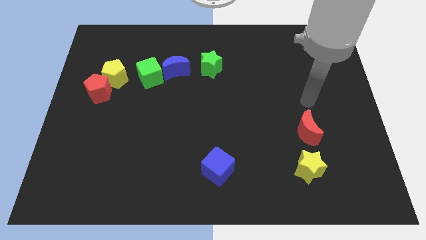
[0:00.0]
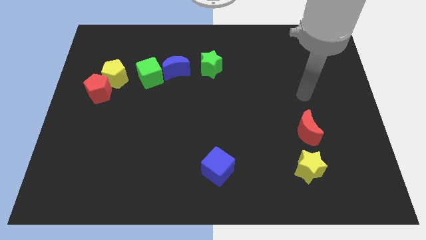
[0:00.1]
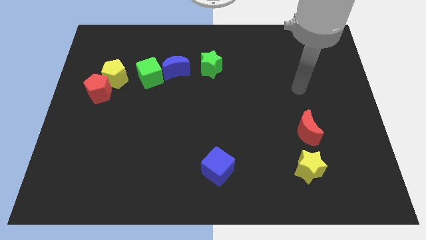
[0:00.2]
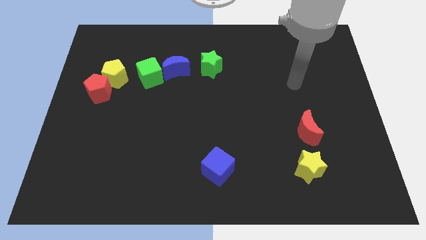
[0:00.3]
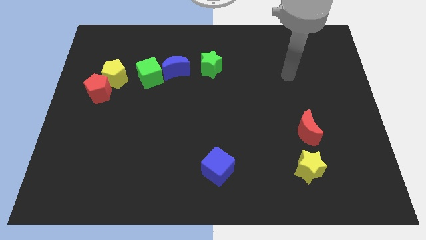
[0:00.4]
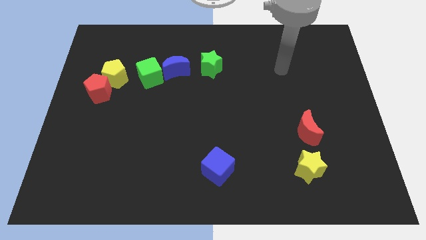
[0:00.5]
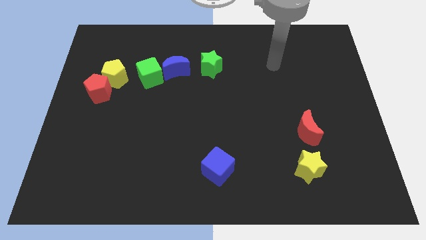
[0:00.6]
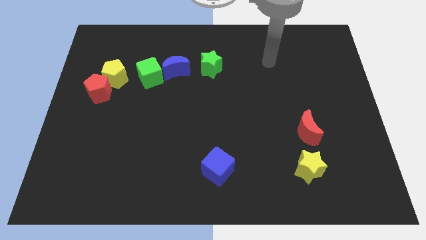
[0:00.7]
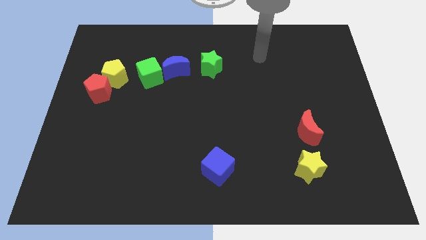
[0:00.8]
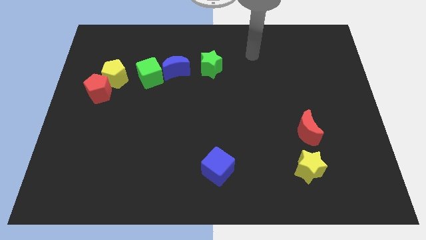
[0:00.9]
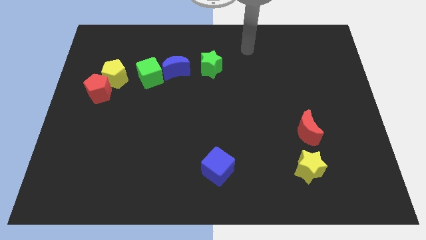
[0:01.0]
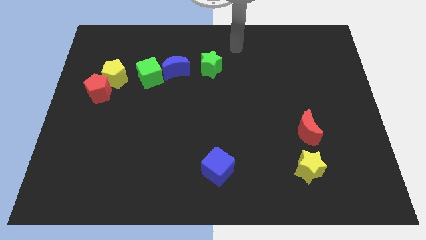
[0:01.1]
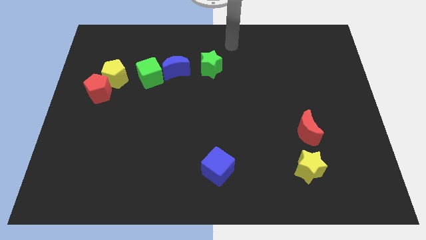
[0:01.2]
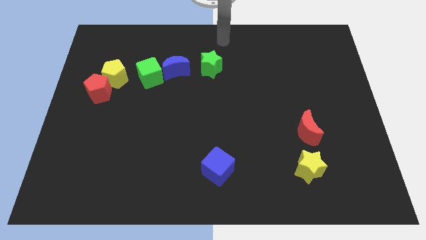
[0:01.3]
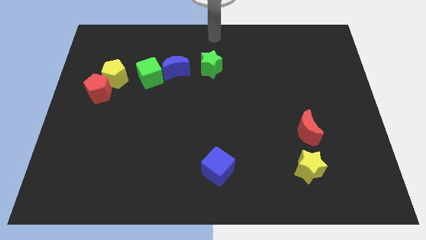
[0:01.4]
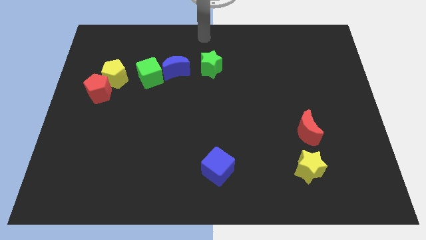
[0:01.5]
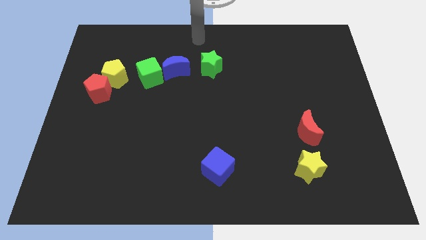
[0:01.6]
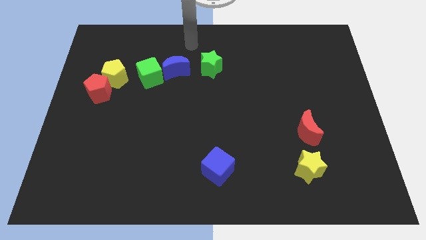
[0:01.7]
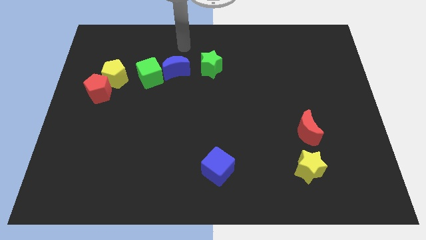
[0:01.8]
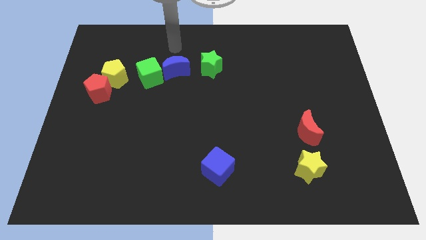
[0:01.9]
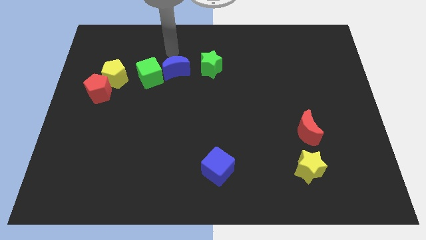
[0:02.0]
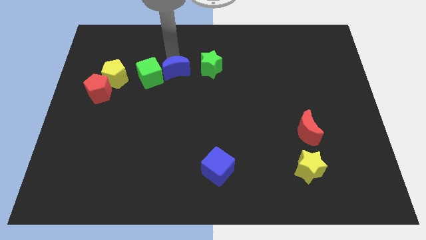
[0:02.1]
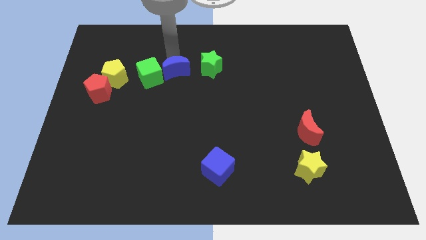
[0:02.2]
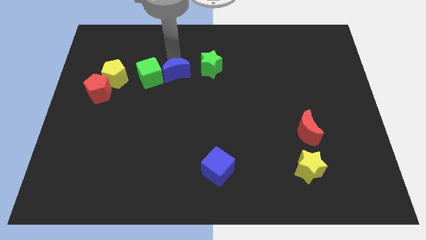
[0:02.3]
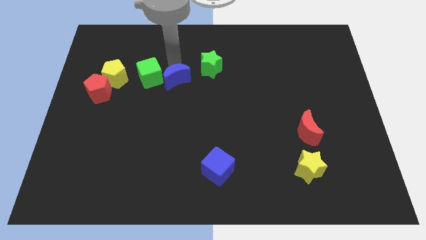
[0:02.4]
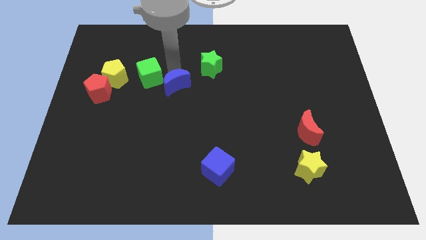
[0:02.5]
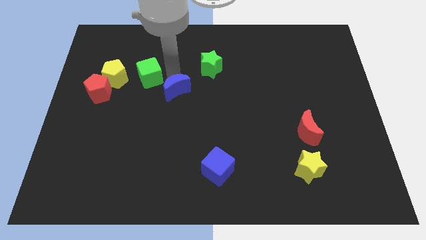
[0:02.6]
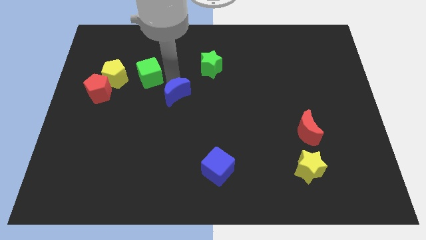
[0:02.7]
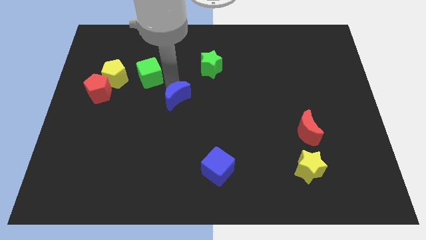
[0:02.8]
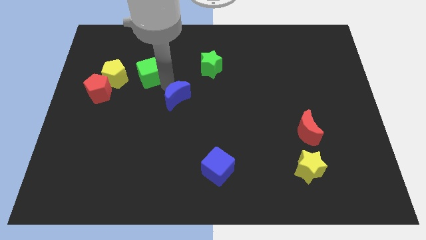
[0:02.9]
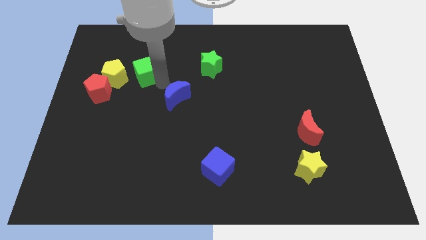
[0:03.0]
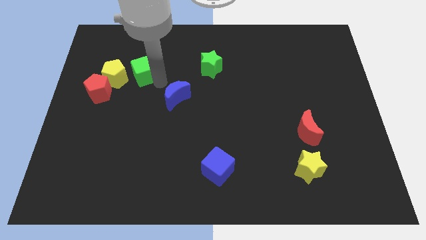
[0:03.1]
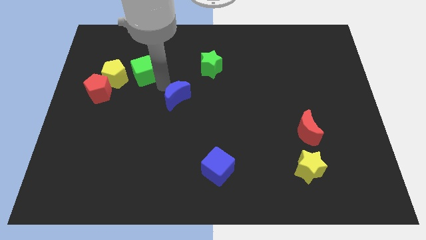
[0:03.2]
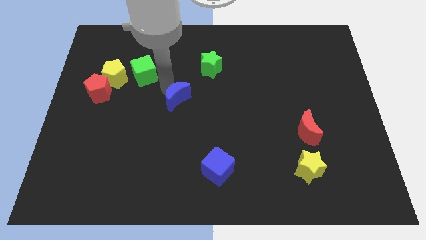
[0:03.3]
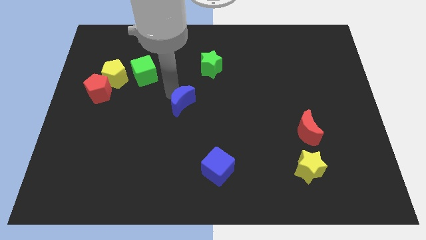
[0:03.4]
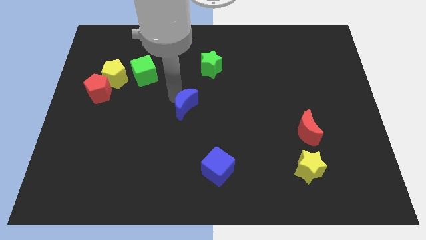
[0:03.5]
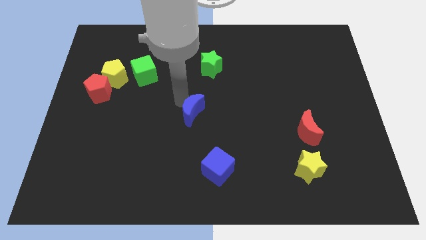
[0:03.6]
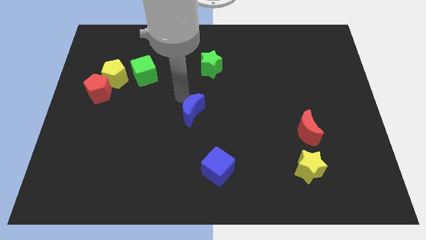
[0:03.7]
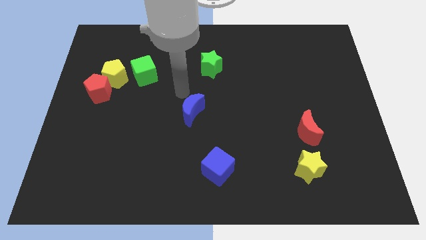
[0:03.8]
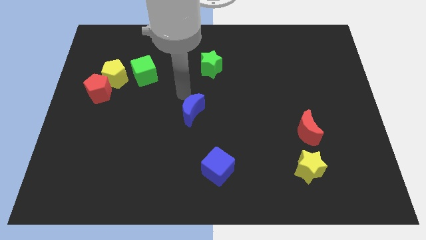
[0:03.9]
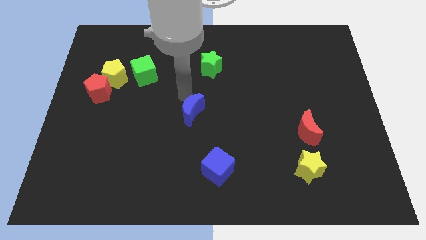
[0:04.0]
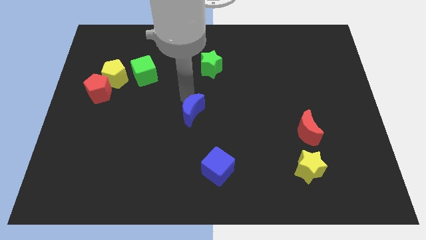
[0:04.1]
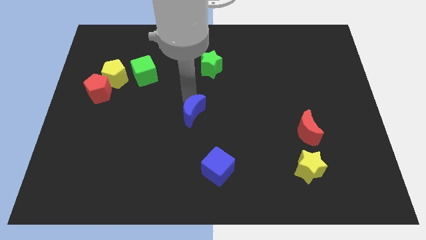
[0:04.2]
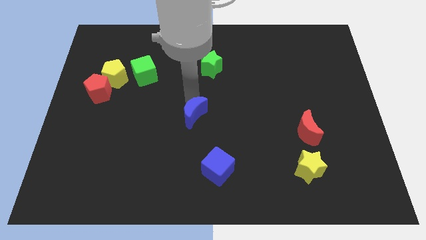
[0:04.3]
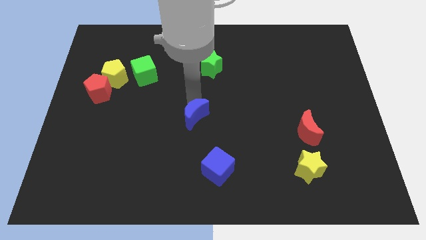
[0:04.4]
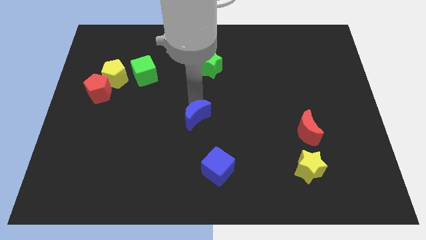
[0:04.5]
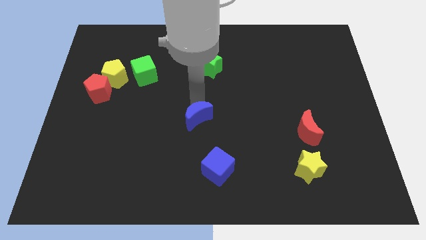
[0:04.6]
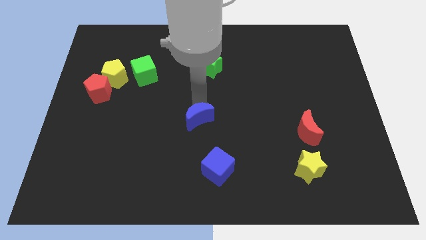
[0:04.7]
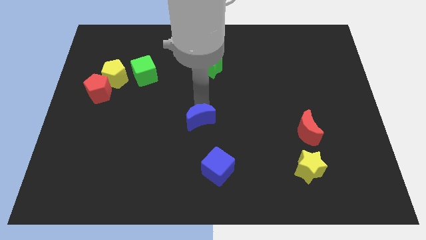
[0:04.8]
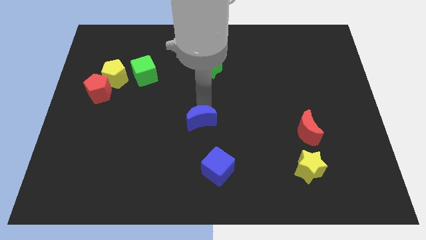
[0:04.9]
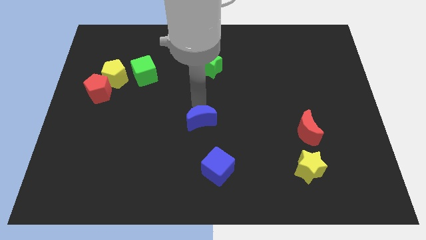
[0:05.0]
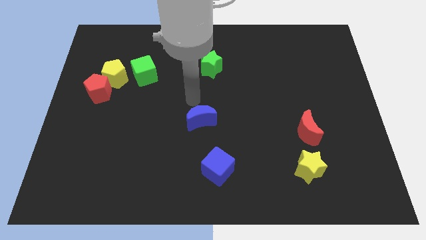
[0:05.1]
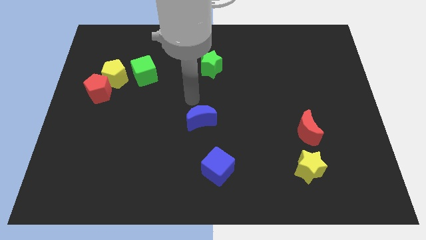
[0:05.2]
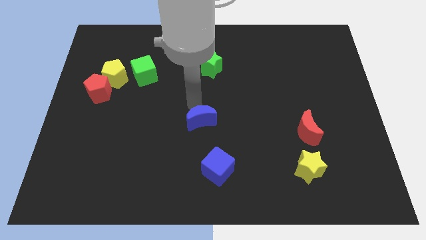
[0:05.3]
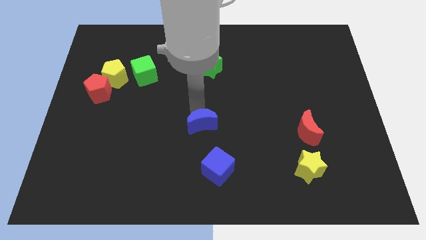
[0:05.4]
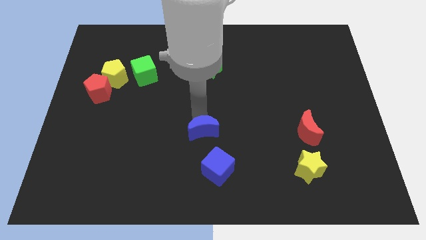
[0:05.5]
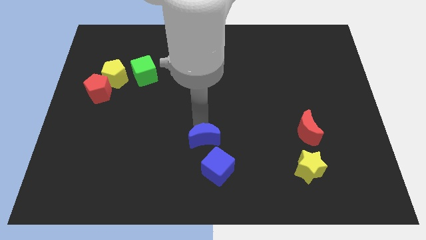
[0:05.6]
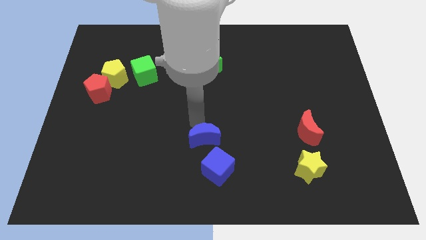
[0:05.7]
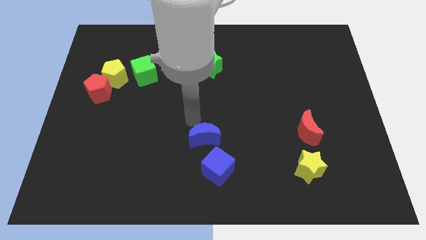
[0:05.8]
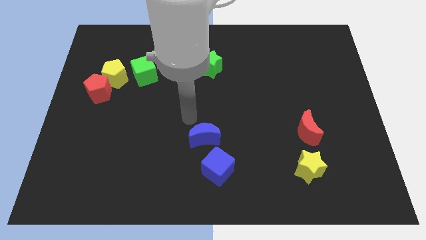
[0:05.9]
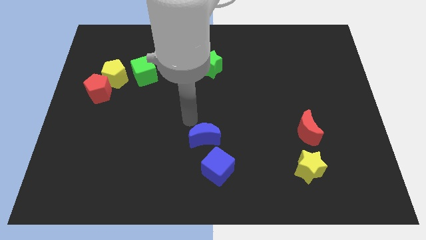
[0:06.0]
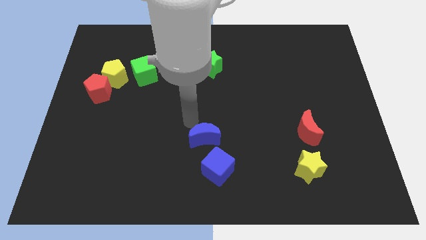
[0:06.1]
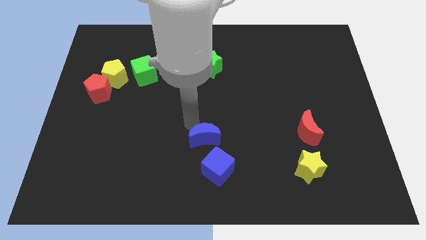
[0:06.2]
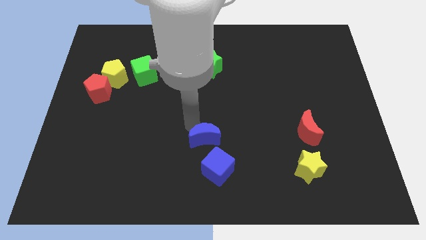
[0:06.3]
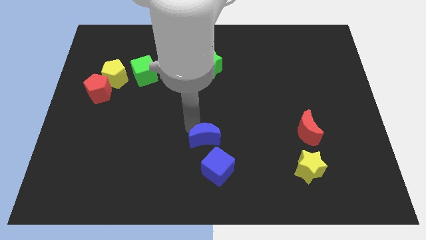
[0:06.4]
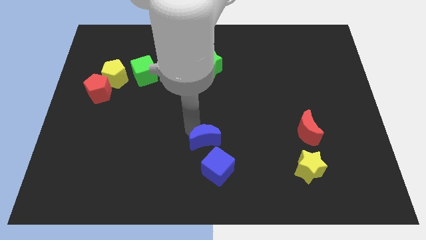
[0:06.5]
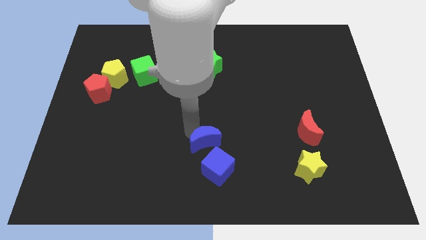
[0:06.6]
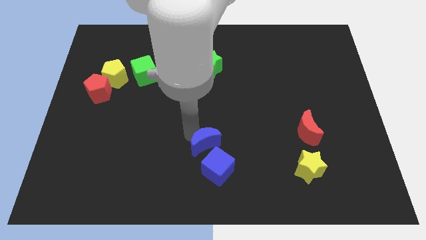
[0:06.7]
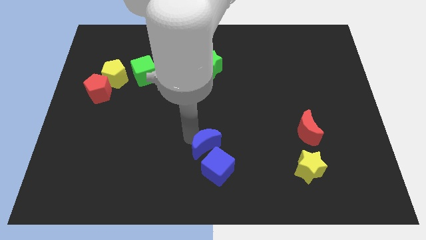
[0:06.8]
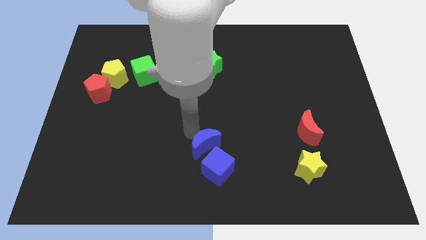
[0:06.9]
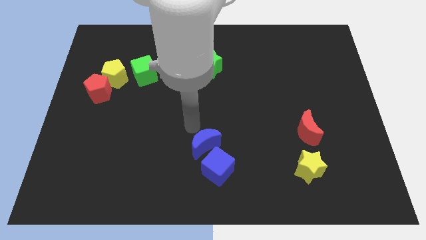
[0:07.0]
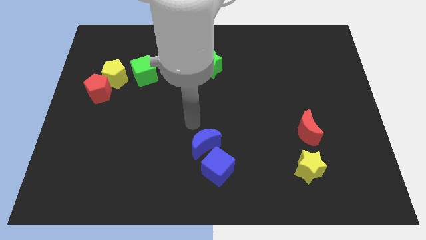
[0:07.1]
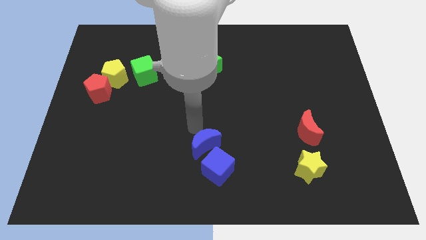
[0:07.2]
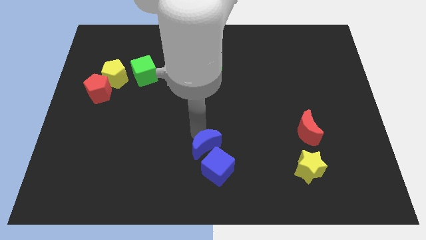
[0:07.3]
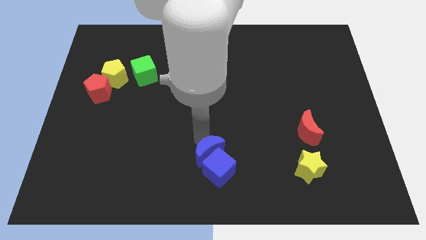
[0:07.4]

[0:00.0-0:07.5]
push the blue moon close to the blue cube
